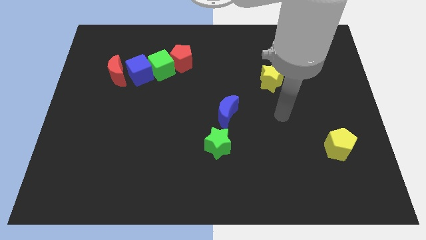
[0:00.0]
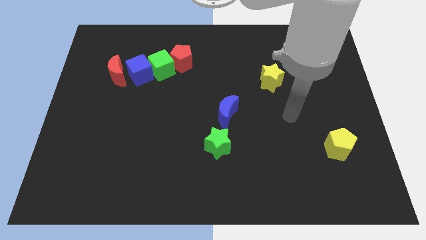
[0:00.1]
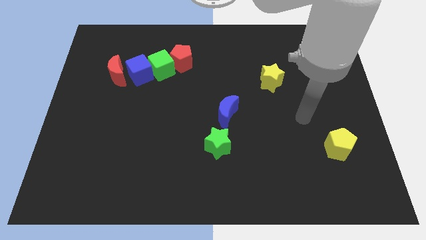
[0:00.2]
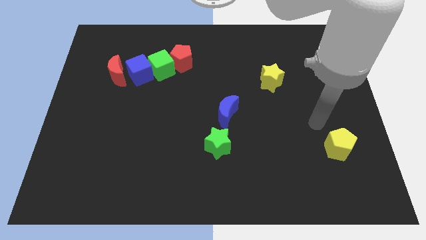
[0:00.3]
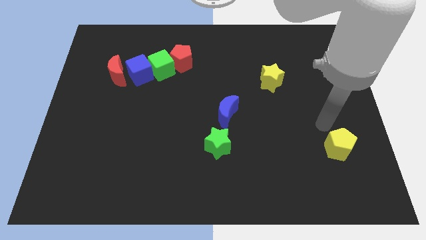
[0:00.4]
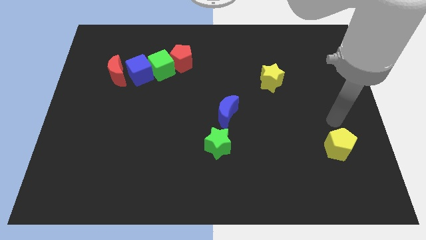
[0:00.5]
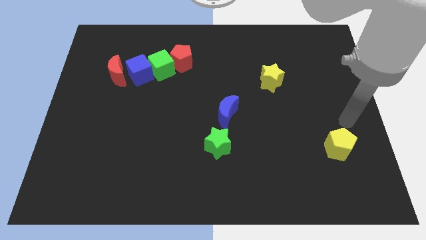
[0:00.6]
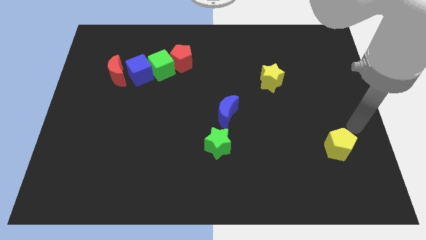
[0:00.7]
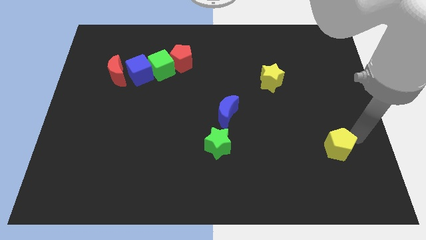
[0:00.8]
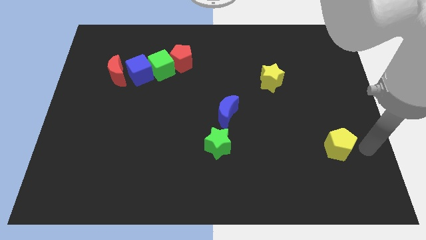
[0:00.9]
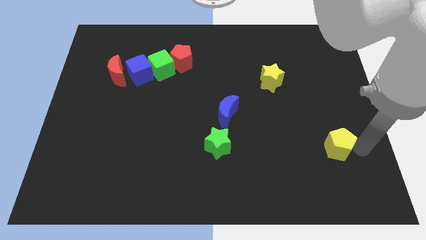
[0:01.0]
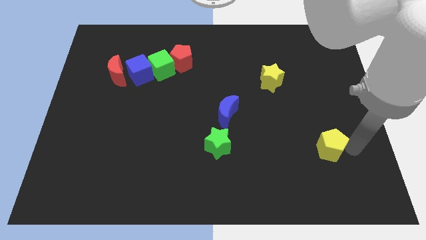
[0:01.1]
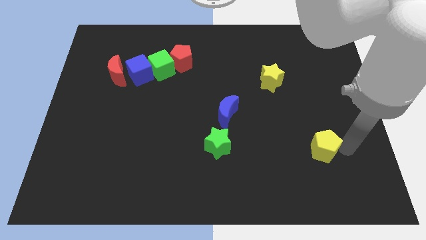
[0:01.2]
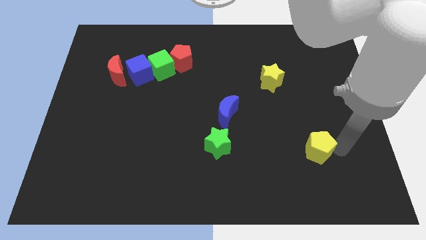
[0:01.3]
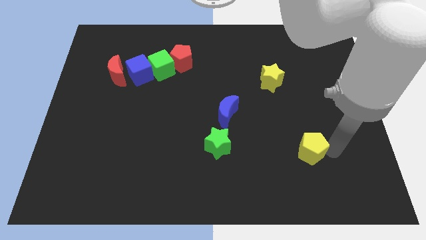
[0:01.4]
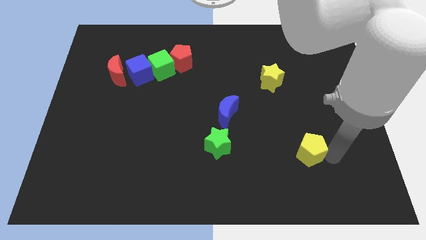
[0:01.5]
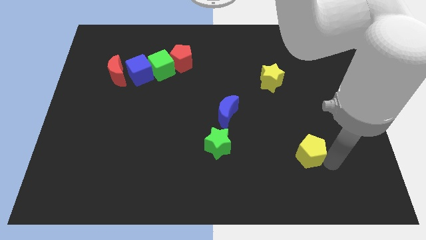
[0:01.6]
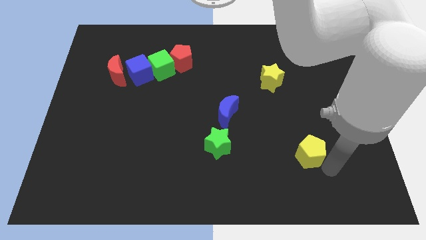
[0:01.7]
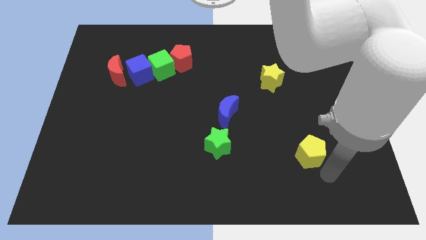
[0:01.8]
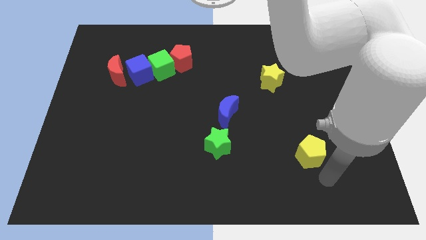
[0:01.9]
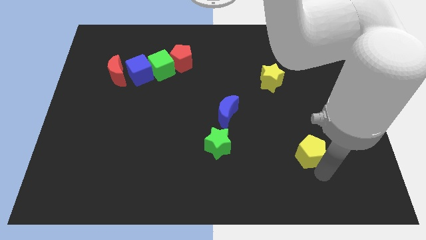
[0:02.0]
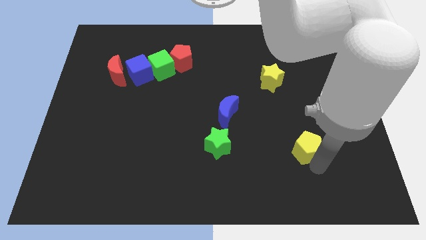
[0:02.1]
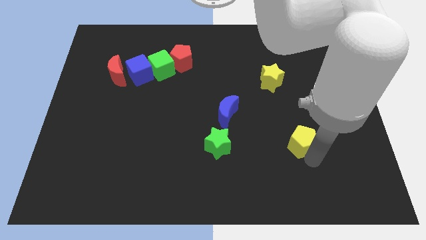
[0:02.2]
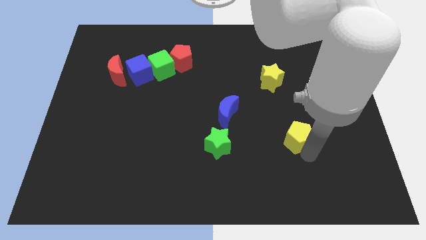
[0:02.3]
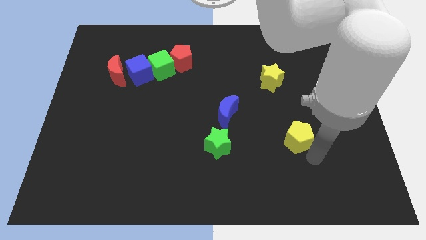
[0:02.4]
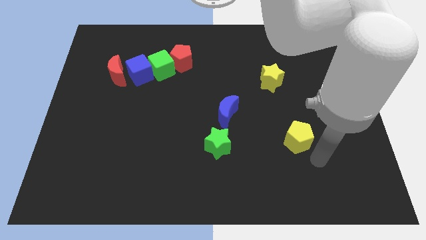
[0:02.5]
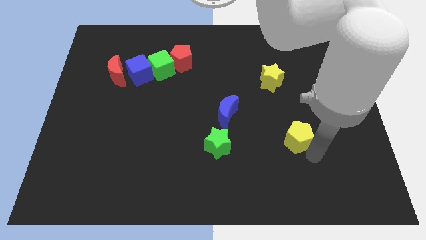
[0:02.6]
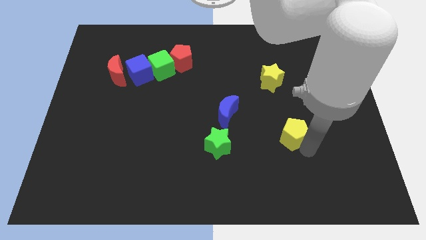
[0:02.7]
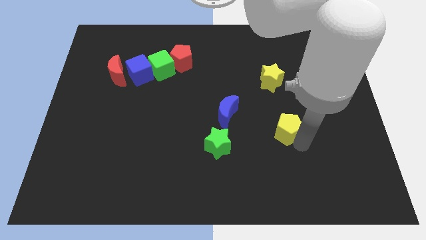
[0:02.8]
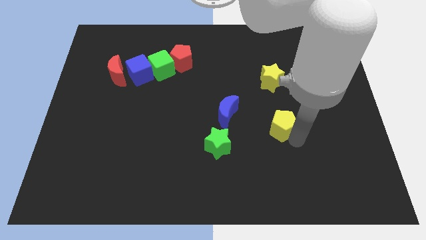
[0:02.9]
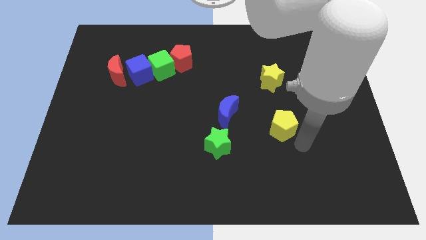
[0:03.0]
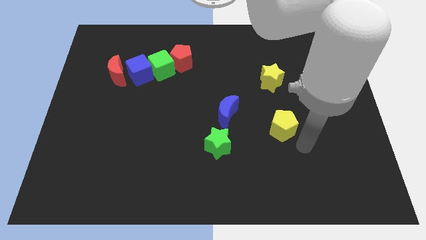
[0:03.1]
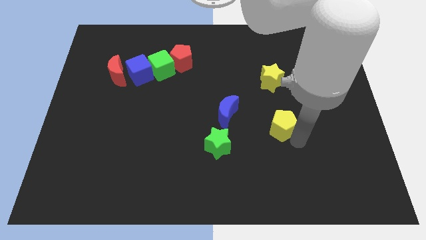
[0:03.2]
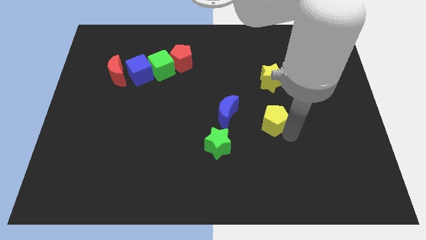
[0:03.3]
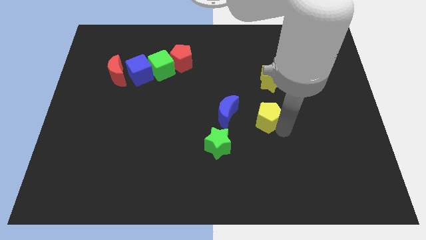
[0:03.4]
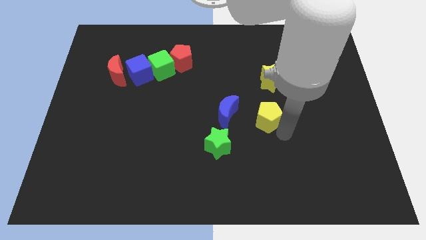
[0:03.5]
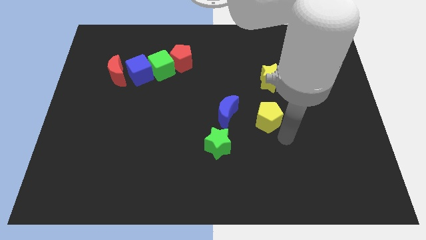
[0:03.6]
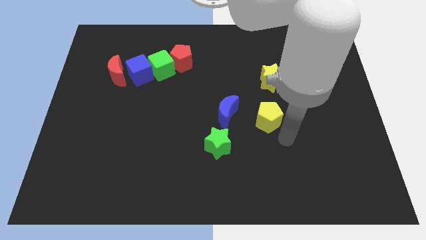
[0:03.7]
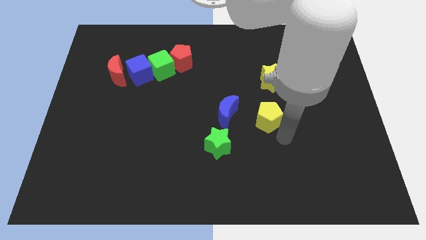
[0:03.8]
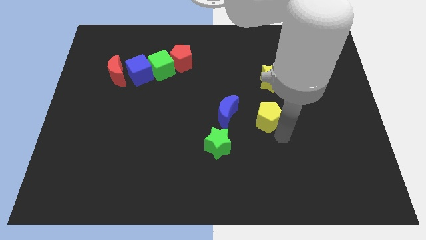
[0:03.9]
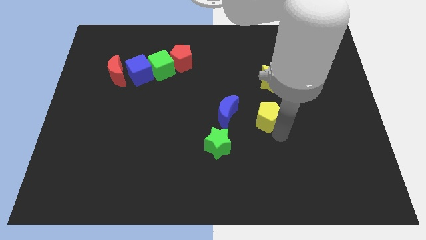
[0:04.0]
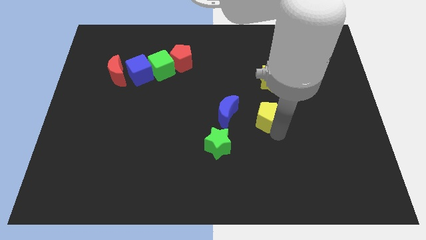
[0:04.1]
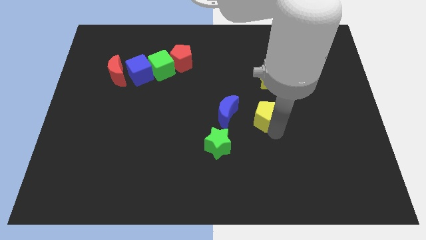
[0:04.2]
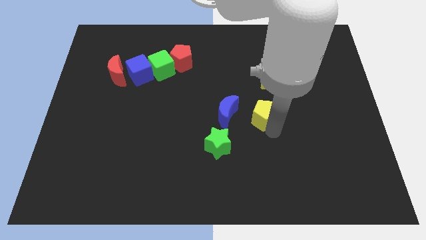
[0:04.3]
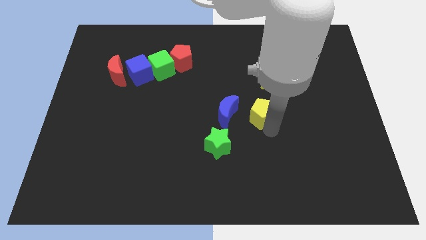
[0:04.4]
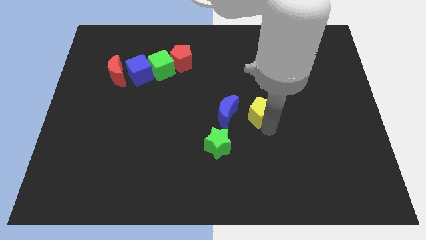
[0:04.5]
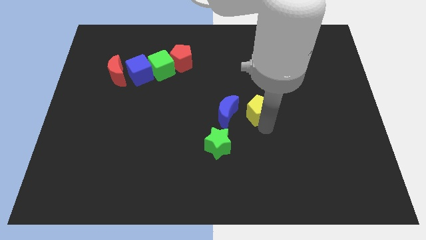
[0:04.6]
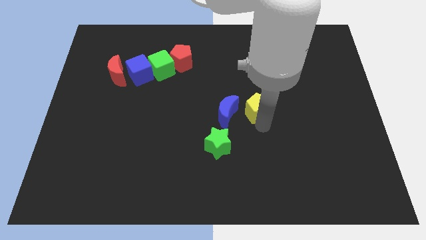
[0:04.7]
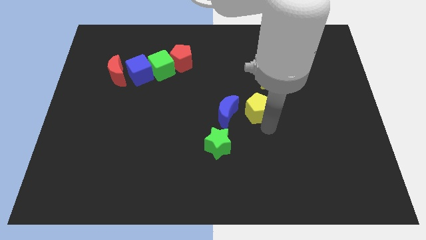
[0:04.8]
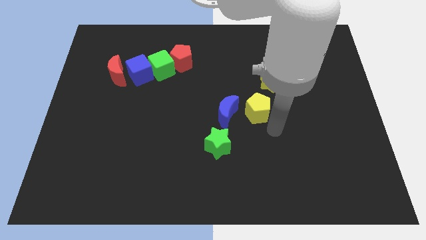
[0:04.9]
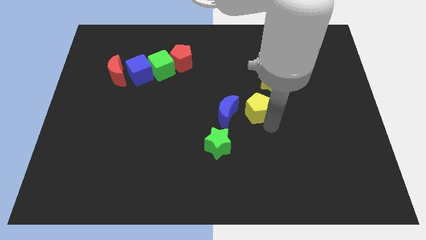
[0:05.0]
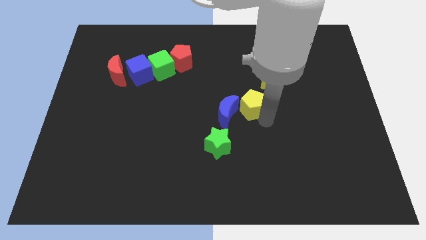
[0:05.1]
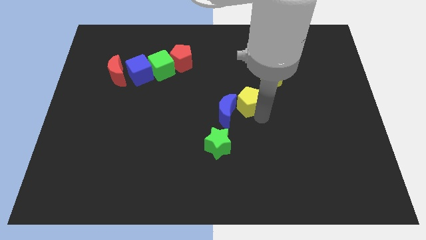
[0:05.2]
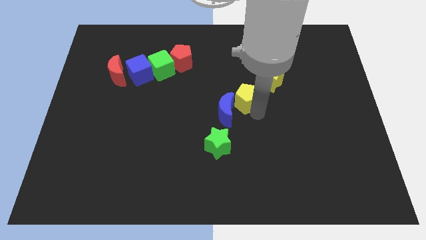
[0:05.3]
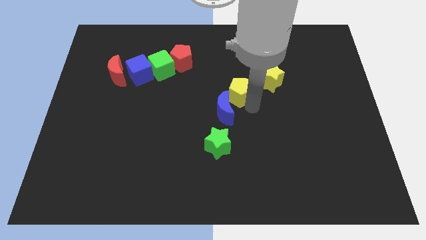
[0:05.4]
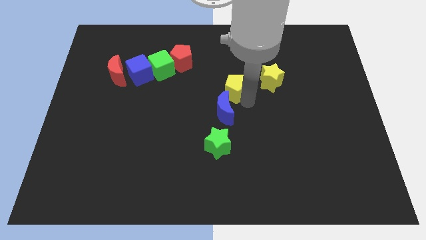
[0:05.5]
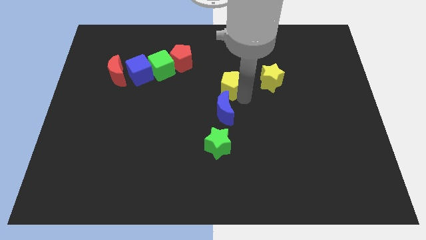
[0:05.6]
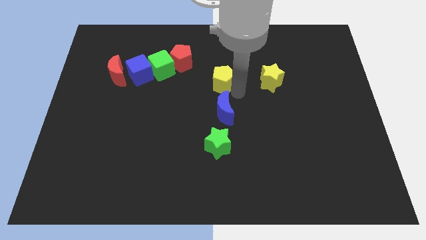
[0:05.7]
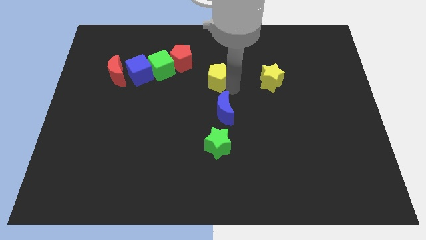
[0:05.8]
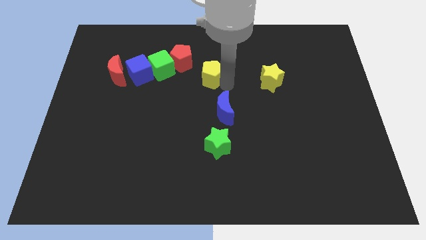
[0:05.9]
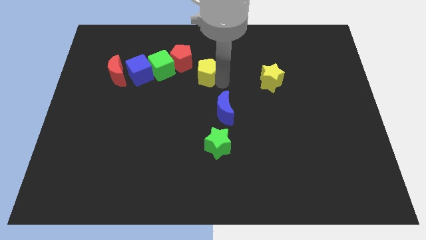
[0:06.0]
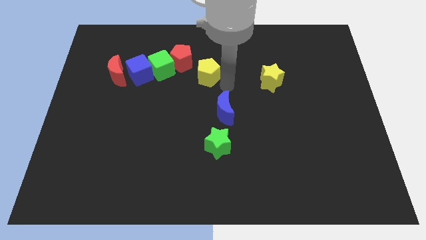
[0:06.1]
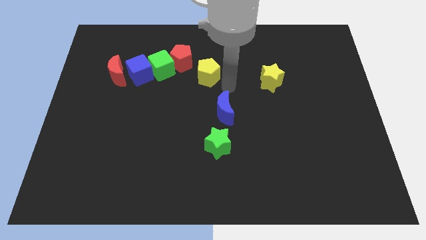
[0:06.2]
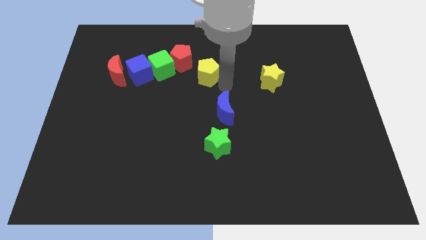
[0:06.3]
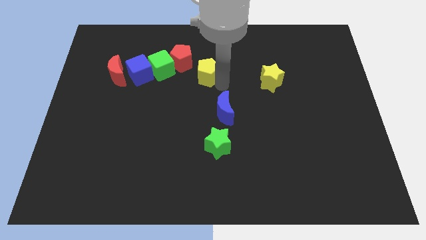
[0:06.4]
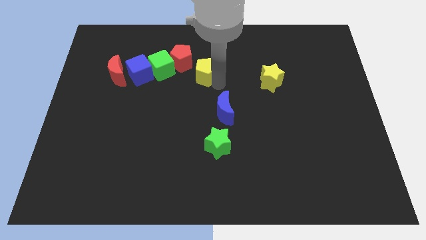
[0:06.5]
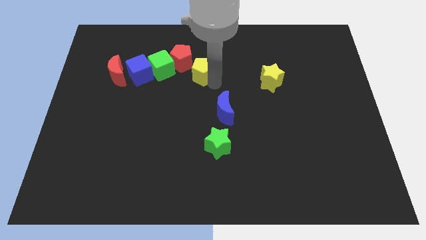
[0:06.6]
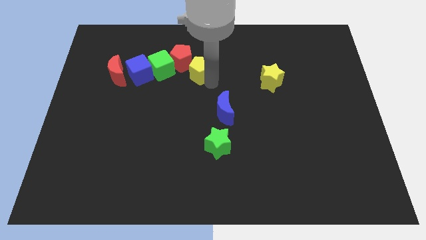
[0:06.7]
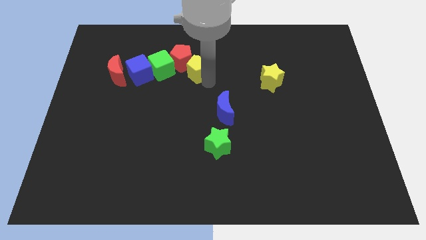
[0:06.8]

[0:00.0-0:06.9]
push the yellow pentagon towards the red pentagon

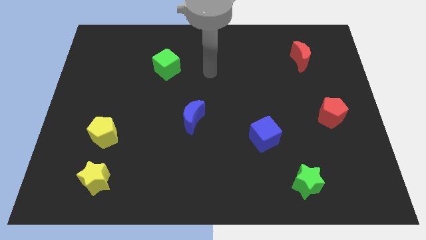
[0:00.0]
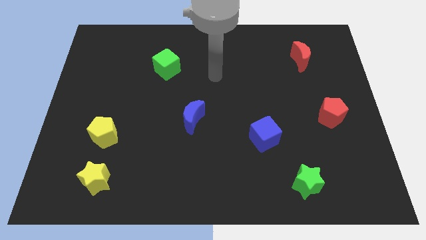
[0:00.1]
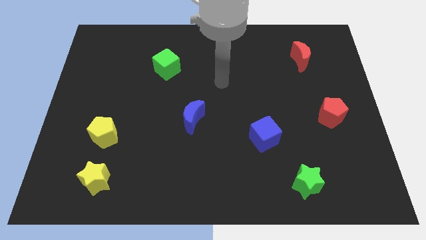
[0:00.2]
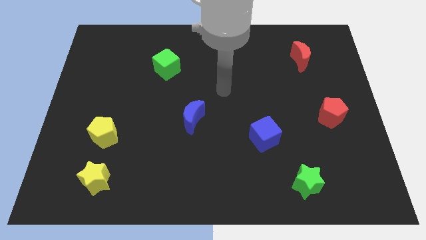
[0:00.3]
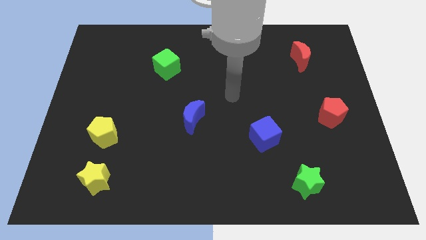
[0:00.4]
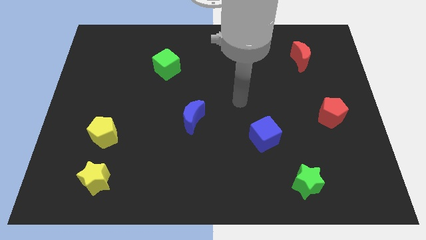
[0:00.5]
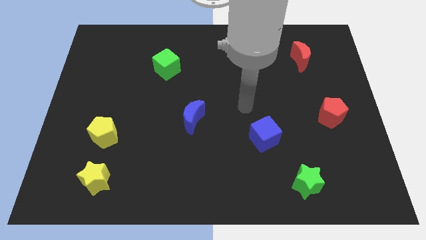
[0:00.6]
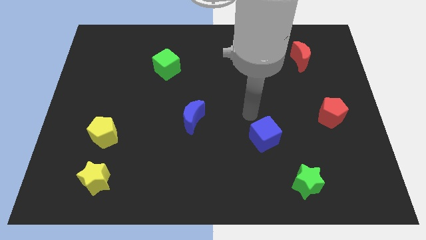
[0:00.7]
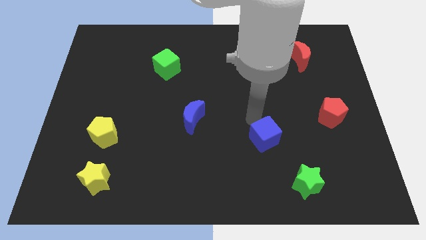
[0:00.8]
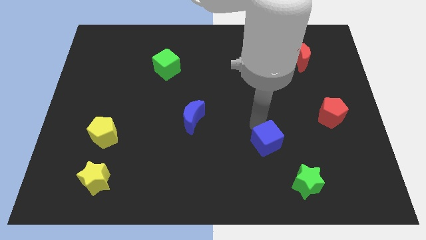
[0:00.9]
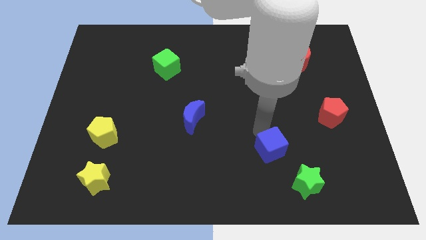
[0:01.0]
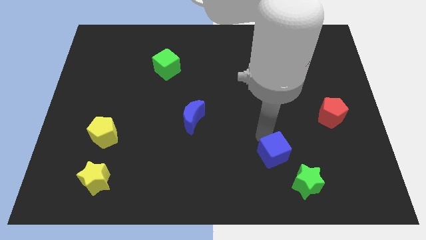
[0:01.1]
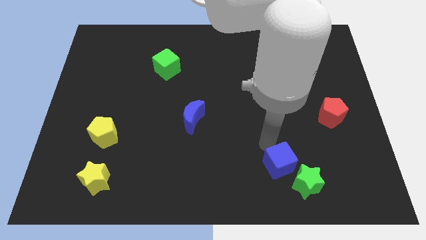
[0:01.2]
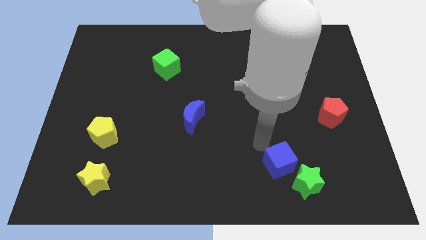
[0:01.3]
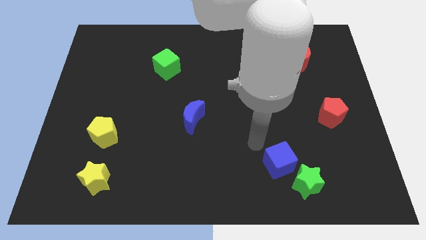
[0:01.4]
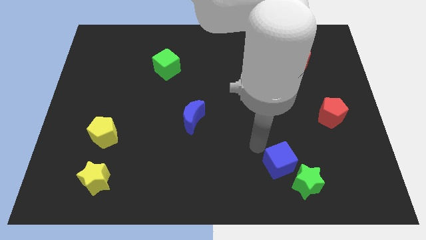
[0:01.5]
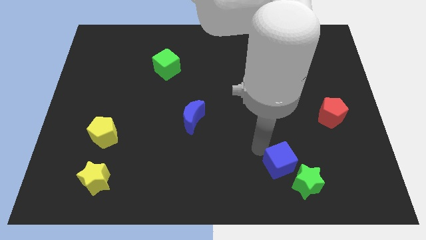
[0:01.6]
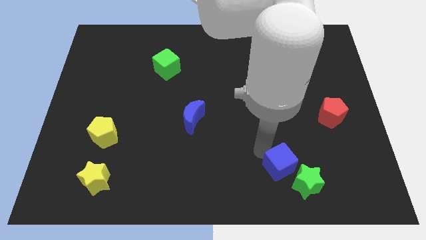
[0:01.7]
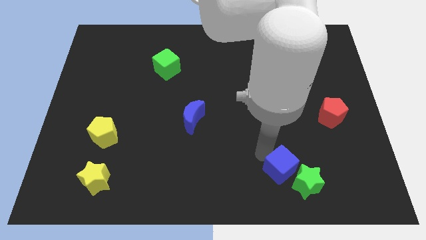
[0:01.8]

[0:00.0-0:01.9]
slide the blue cube to the green star
